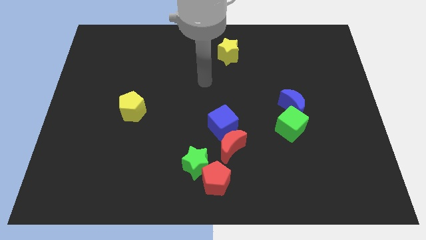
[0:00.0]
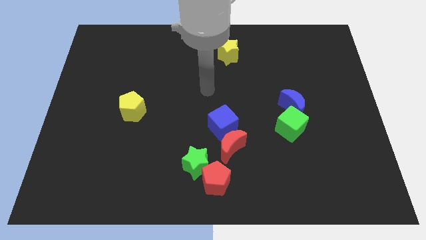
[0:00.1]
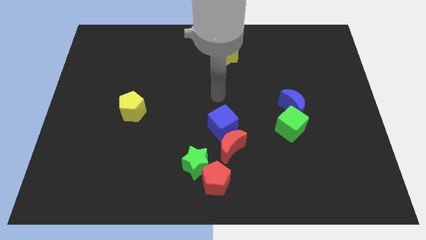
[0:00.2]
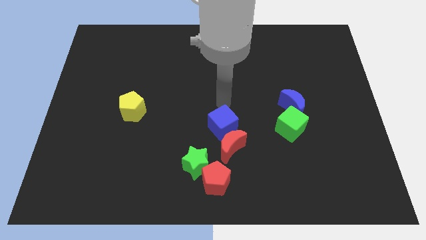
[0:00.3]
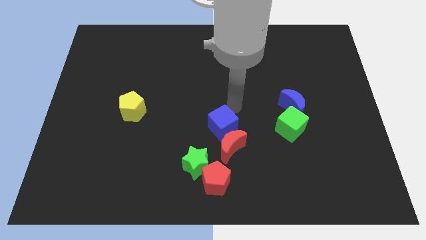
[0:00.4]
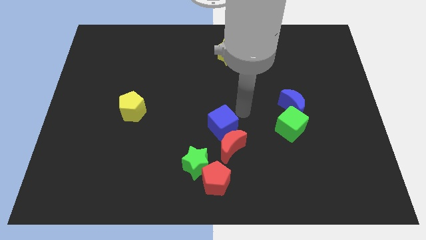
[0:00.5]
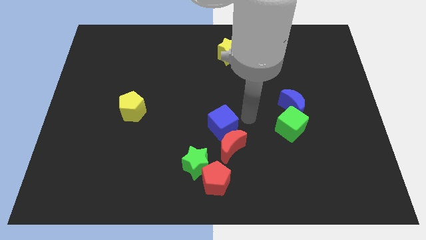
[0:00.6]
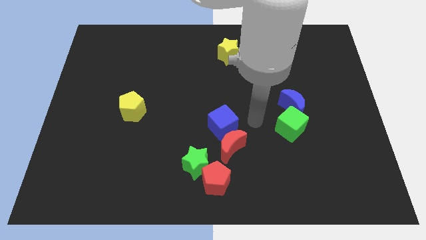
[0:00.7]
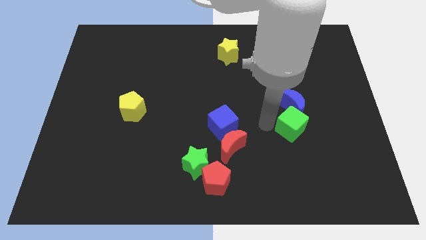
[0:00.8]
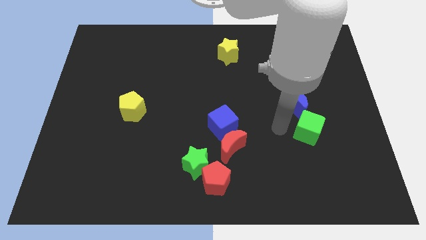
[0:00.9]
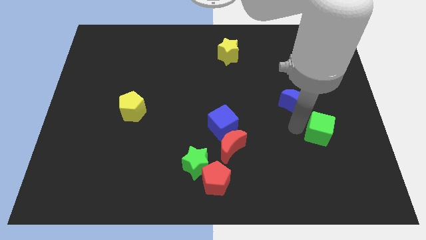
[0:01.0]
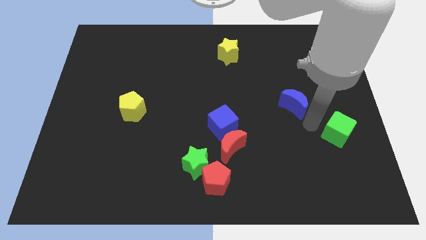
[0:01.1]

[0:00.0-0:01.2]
separate the blue moon from the green cube

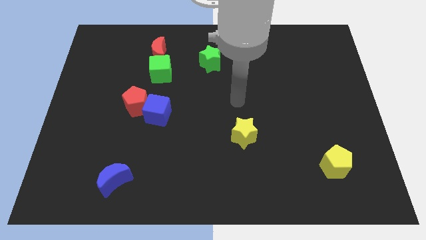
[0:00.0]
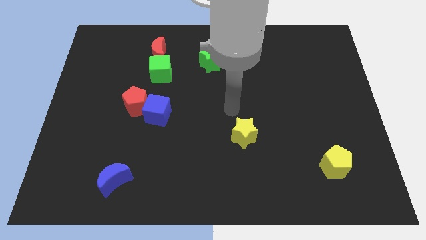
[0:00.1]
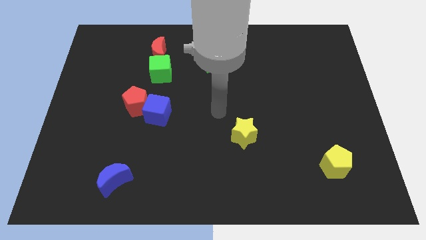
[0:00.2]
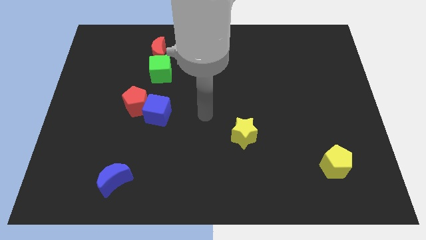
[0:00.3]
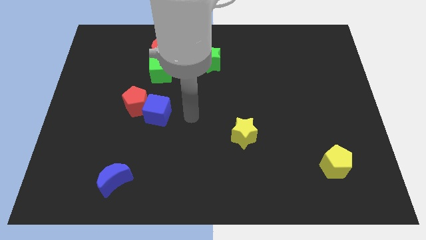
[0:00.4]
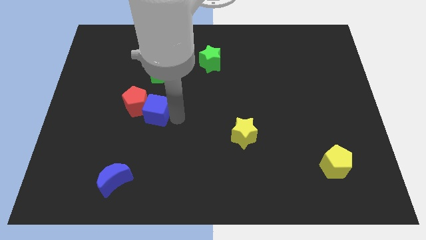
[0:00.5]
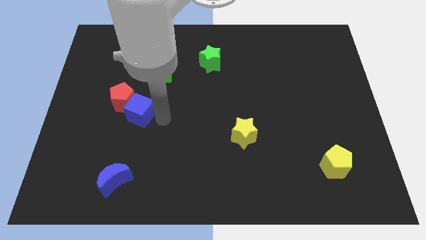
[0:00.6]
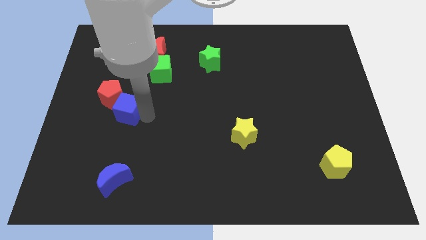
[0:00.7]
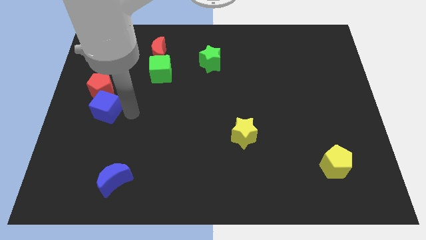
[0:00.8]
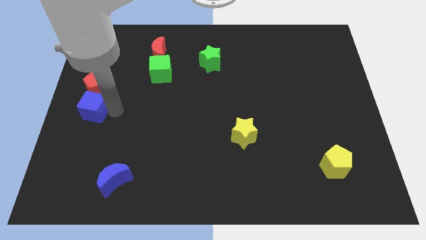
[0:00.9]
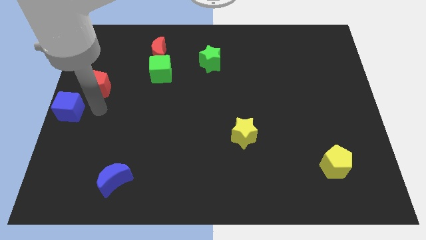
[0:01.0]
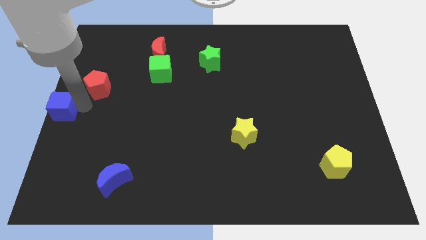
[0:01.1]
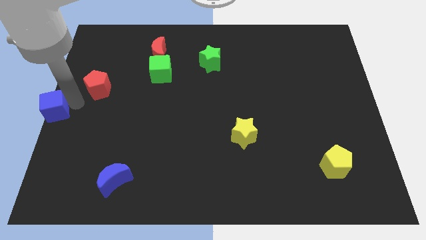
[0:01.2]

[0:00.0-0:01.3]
separate the red pentagon from the blue cube

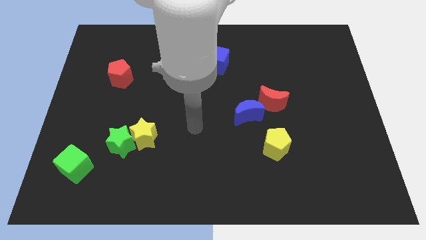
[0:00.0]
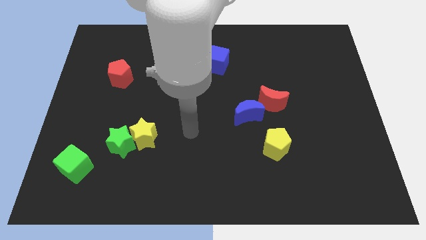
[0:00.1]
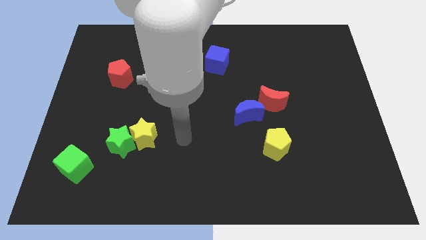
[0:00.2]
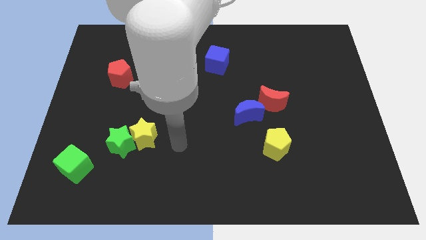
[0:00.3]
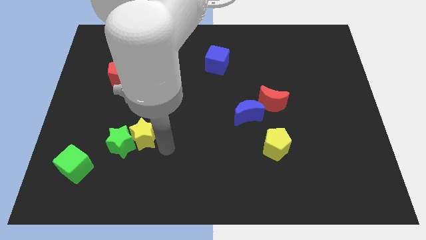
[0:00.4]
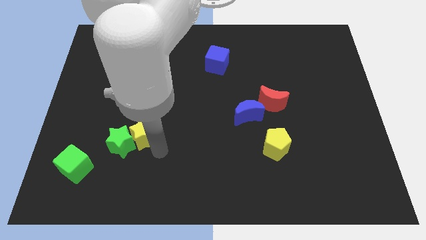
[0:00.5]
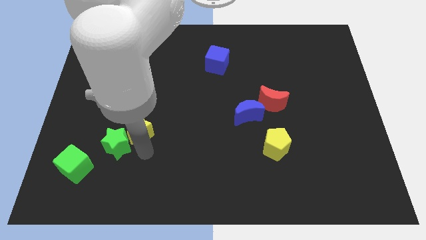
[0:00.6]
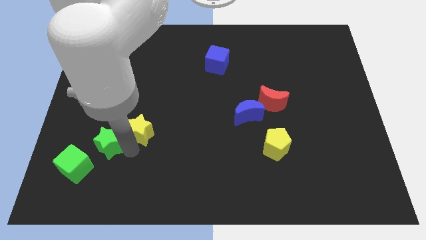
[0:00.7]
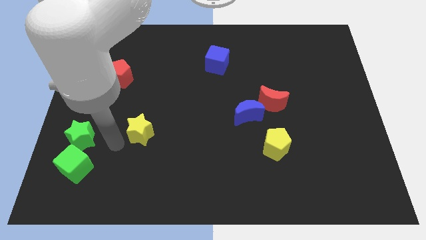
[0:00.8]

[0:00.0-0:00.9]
move the yellow star away from the green star

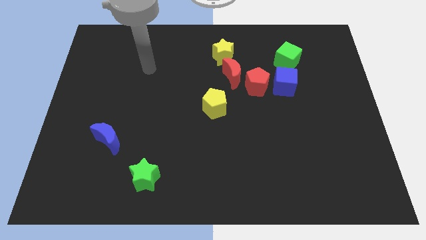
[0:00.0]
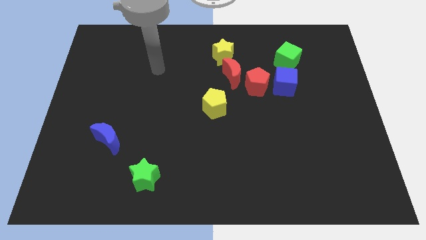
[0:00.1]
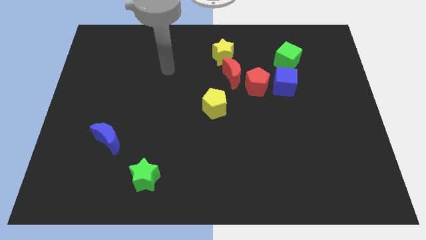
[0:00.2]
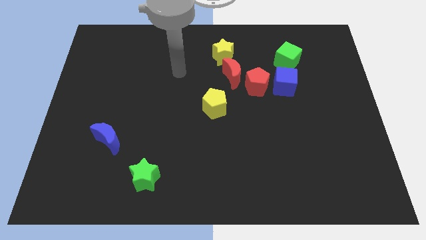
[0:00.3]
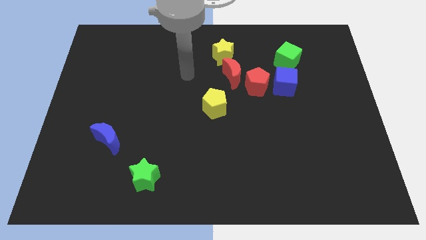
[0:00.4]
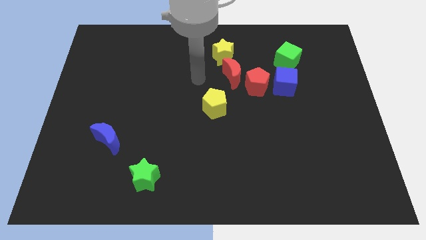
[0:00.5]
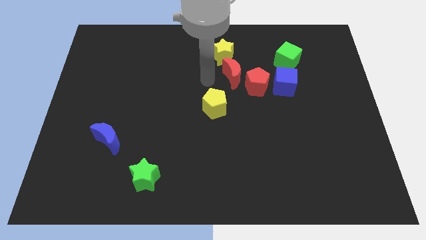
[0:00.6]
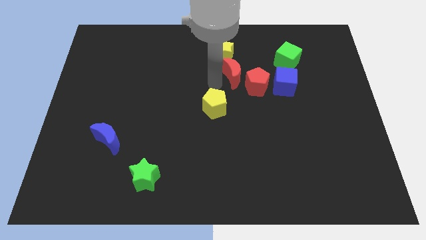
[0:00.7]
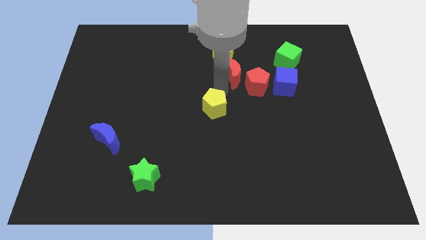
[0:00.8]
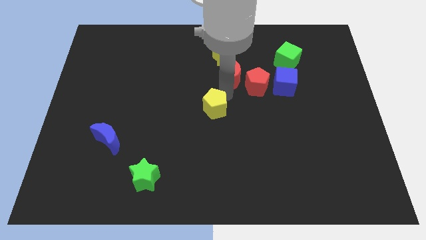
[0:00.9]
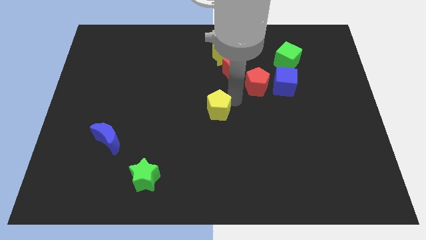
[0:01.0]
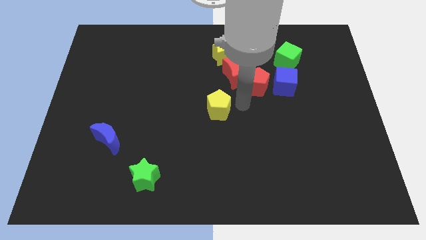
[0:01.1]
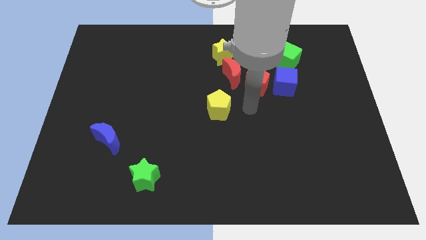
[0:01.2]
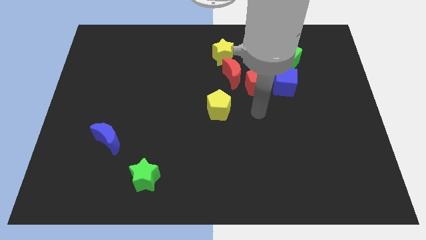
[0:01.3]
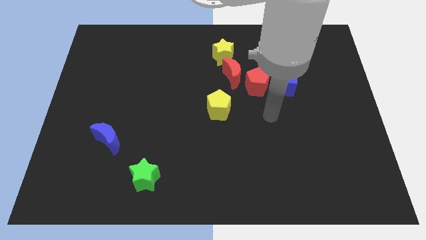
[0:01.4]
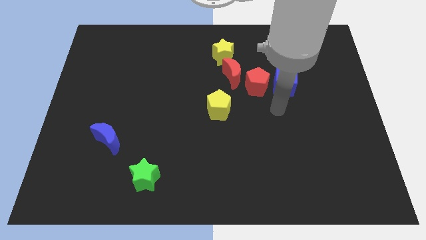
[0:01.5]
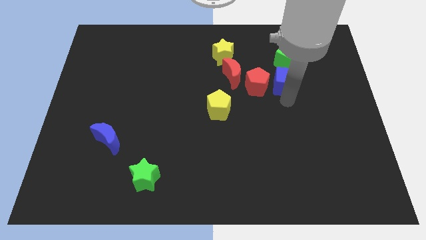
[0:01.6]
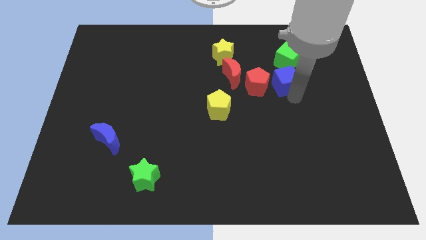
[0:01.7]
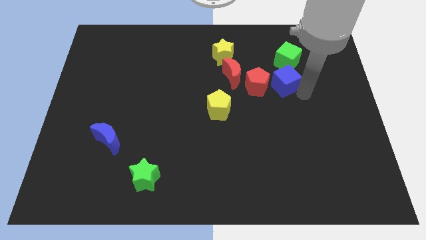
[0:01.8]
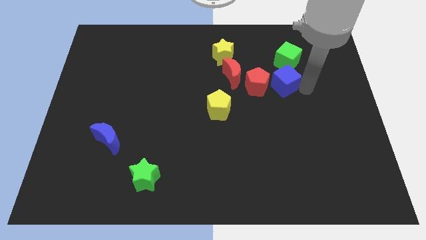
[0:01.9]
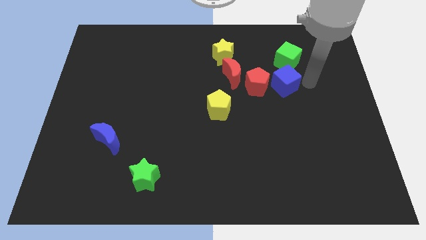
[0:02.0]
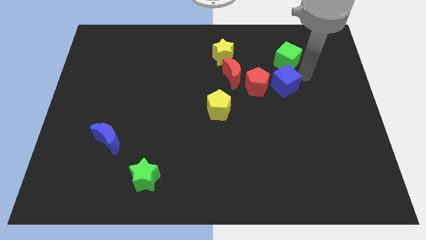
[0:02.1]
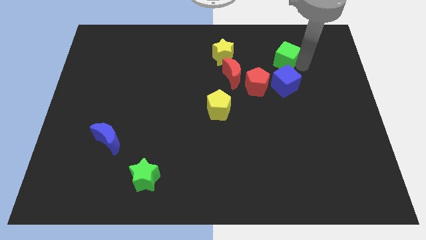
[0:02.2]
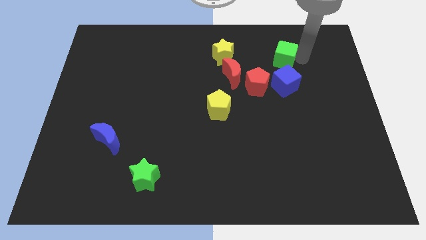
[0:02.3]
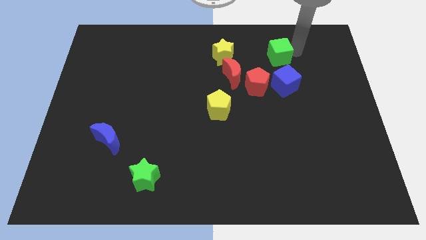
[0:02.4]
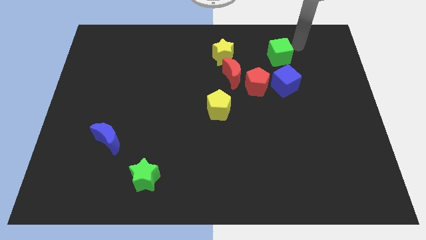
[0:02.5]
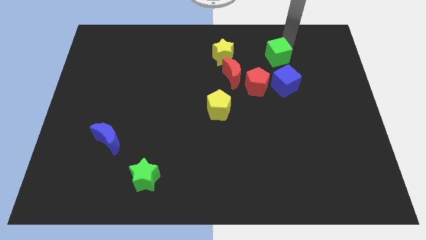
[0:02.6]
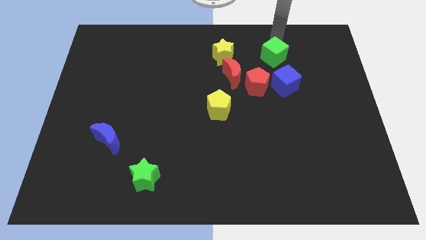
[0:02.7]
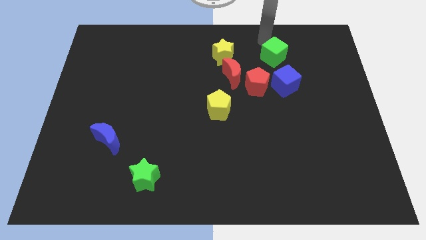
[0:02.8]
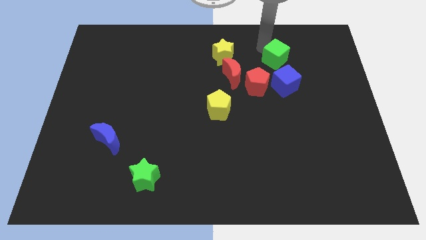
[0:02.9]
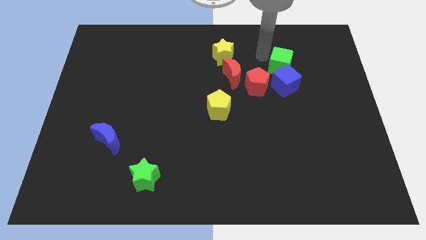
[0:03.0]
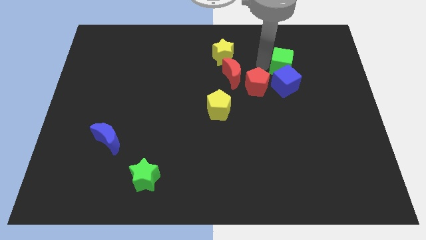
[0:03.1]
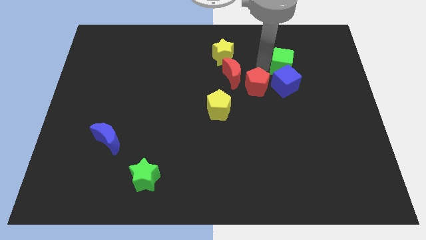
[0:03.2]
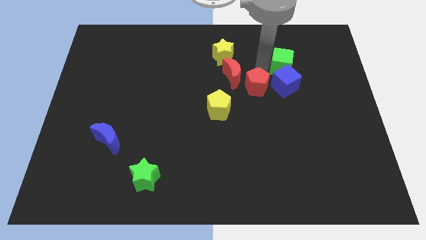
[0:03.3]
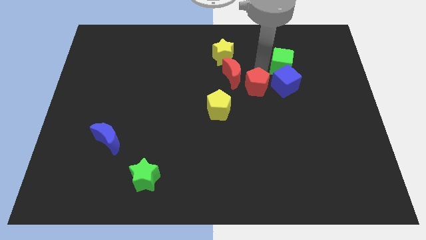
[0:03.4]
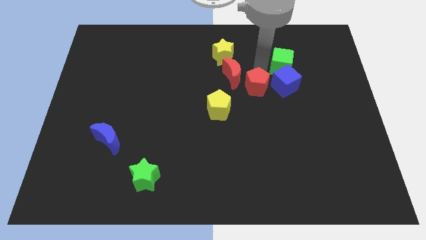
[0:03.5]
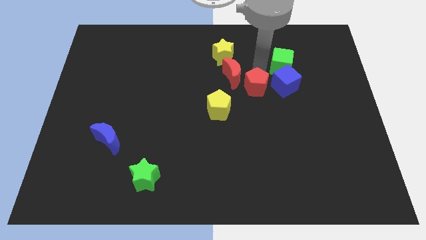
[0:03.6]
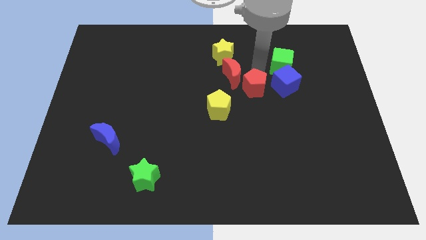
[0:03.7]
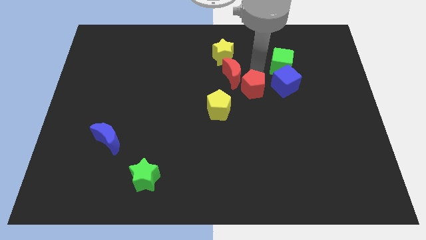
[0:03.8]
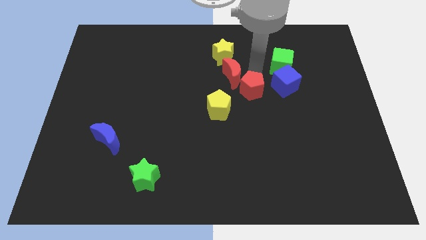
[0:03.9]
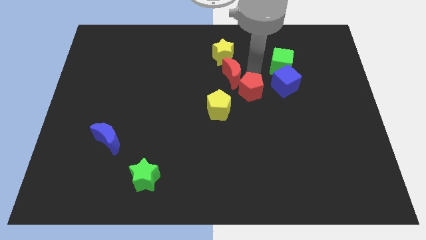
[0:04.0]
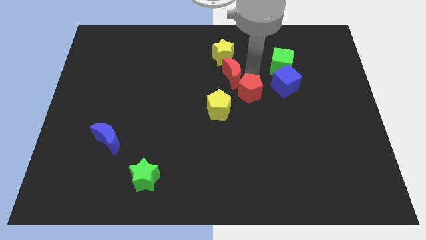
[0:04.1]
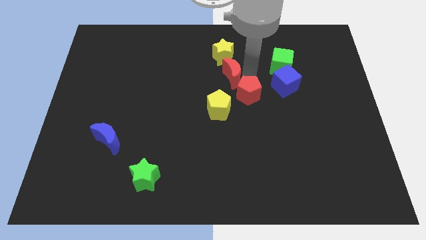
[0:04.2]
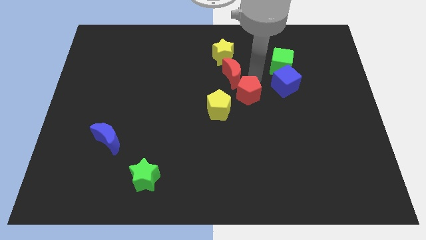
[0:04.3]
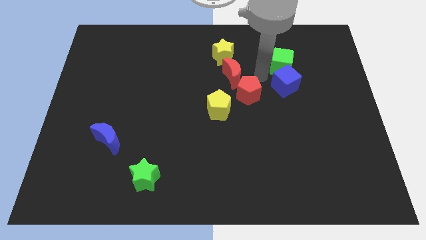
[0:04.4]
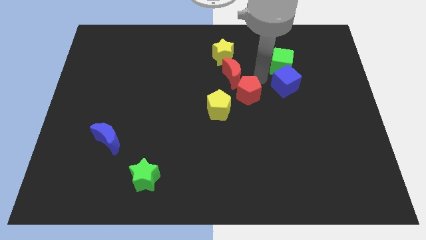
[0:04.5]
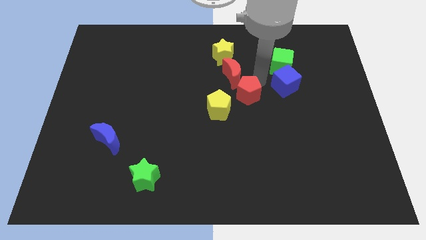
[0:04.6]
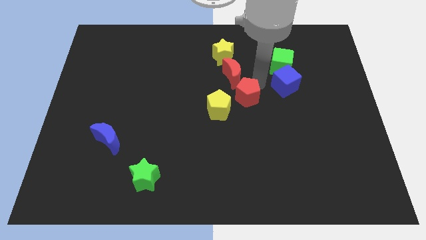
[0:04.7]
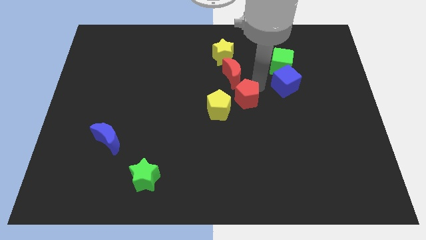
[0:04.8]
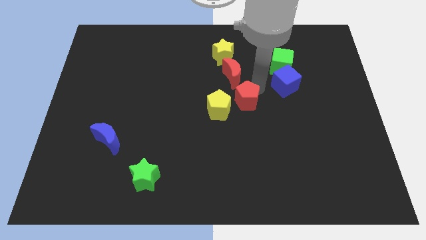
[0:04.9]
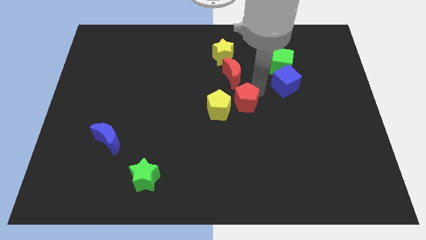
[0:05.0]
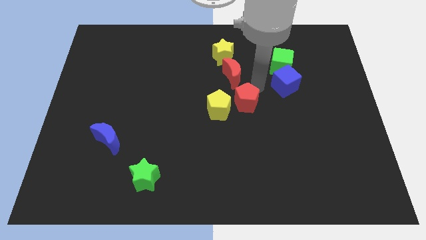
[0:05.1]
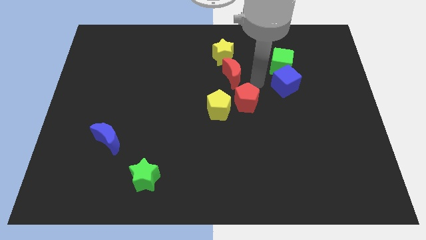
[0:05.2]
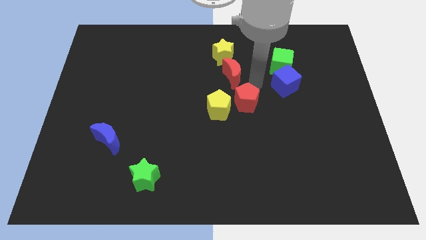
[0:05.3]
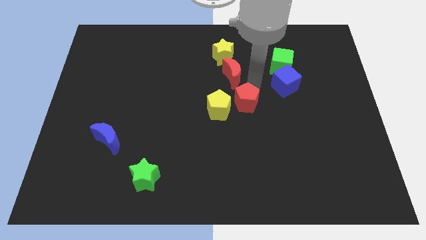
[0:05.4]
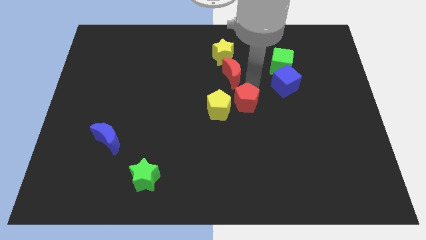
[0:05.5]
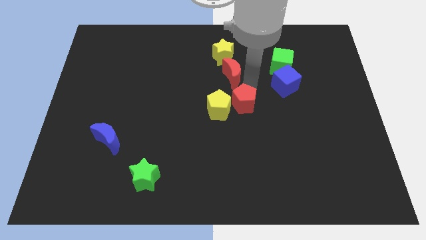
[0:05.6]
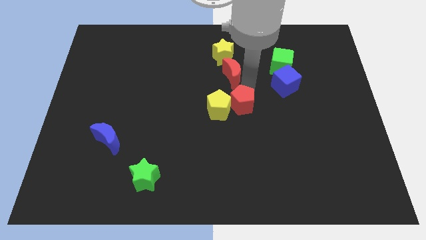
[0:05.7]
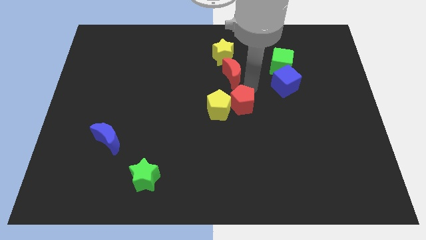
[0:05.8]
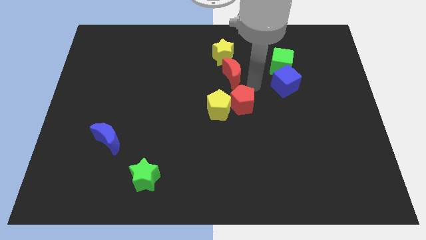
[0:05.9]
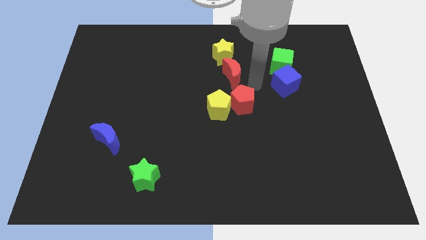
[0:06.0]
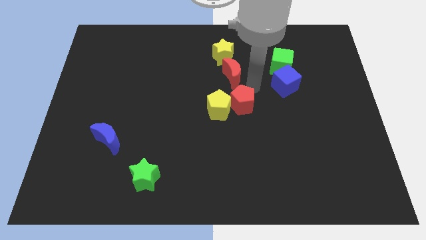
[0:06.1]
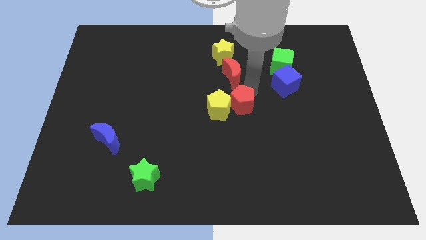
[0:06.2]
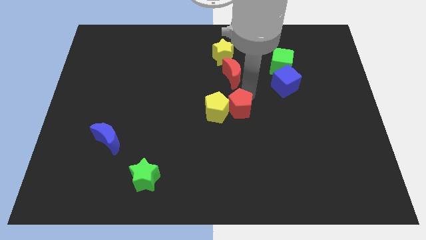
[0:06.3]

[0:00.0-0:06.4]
pull the red pentagon apart from the red moon and blue cube
